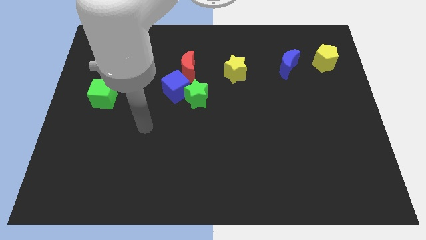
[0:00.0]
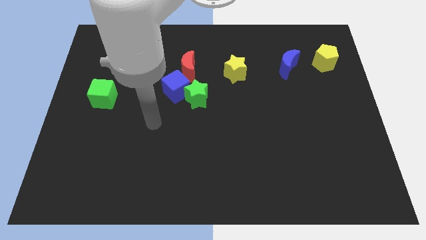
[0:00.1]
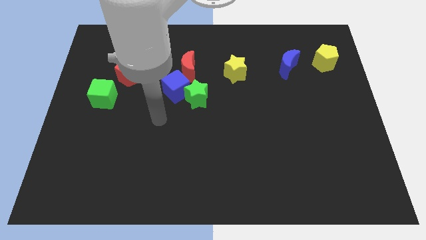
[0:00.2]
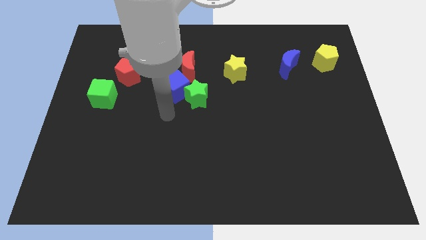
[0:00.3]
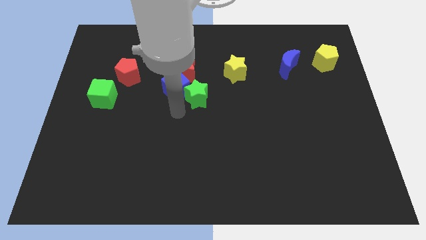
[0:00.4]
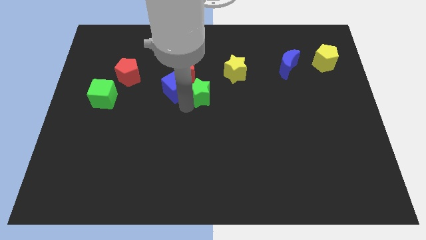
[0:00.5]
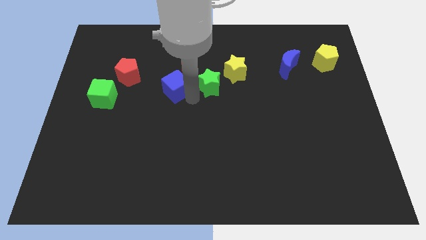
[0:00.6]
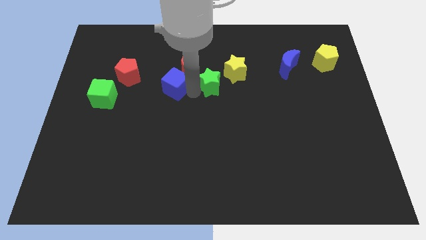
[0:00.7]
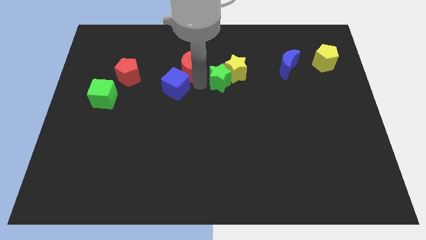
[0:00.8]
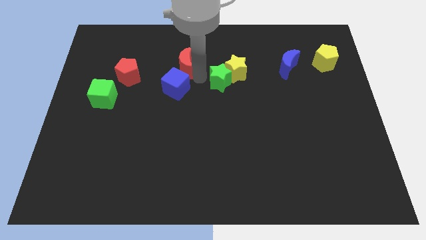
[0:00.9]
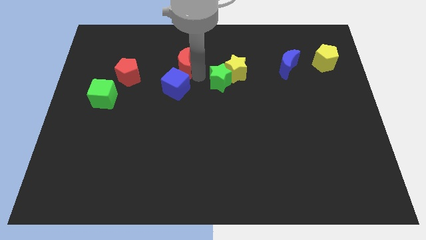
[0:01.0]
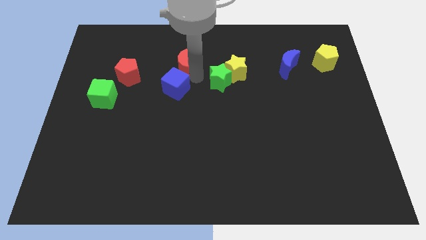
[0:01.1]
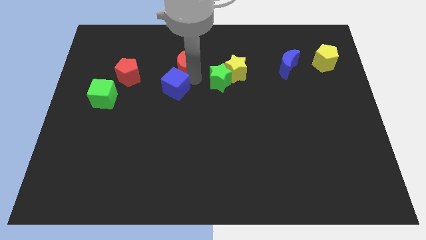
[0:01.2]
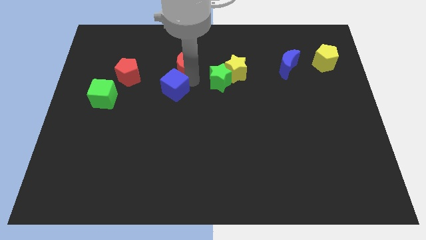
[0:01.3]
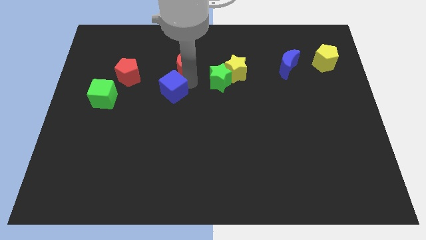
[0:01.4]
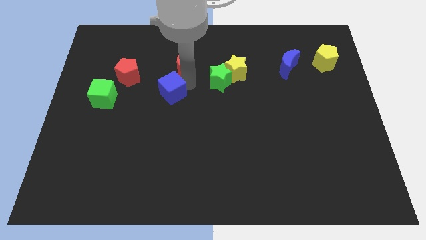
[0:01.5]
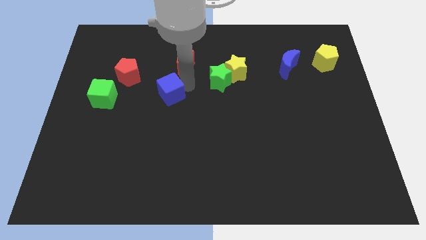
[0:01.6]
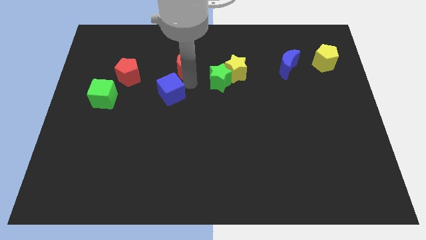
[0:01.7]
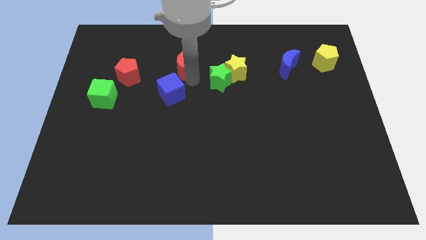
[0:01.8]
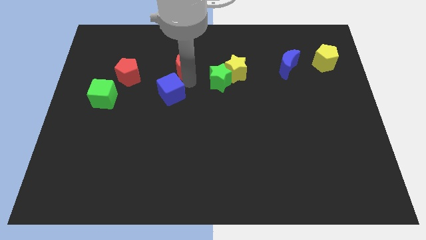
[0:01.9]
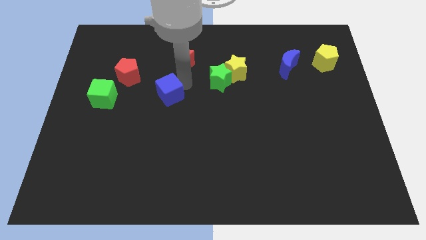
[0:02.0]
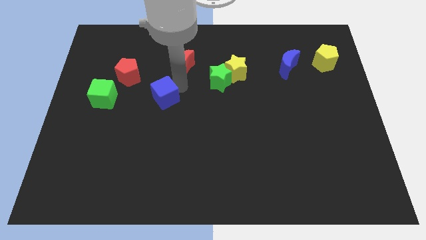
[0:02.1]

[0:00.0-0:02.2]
separate the blue cube from the green star and red moon

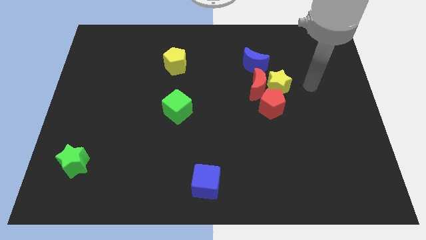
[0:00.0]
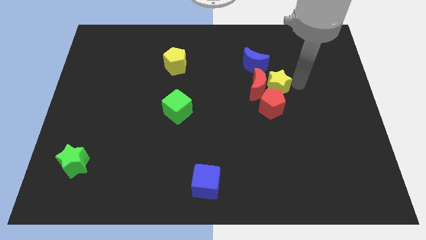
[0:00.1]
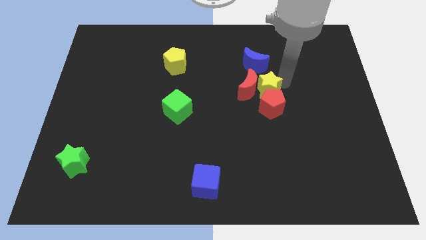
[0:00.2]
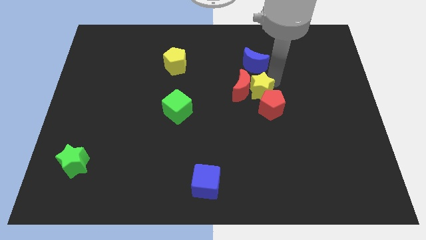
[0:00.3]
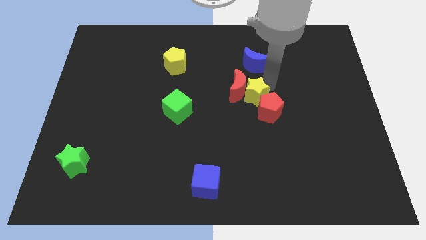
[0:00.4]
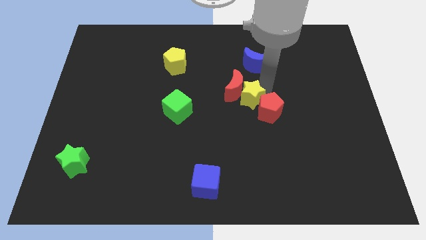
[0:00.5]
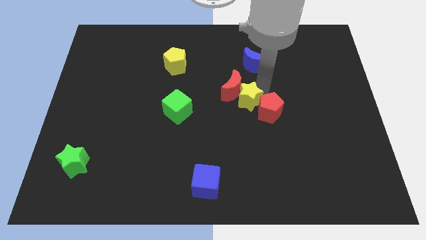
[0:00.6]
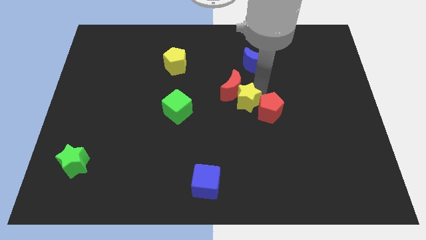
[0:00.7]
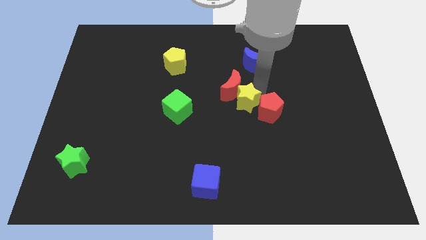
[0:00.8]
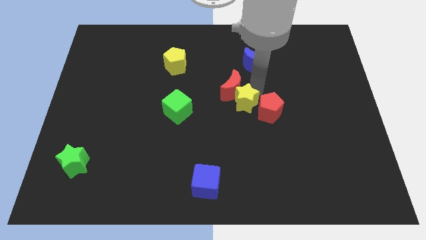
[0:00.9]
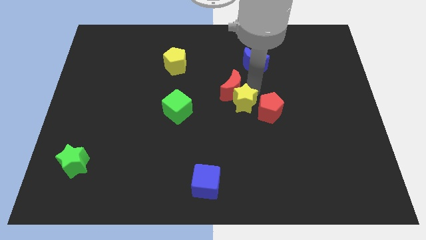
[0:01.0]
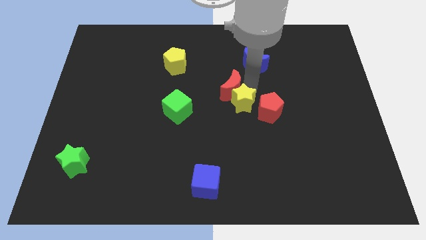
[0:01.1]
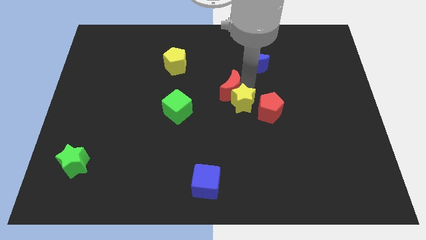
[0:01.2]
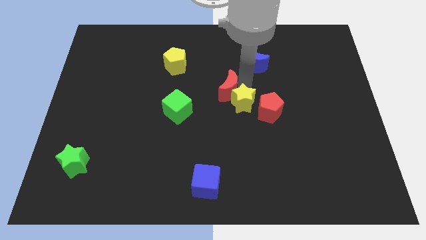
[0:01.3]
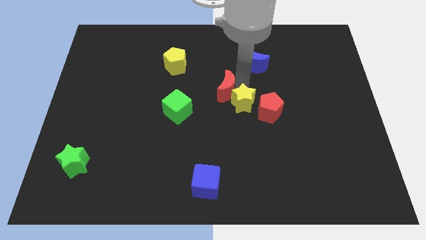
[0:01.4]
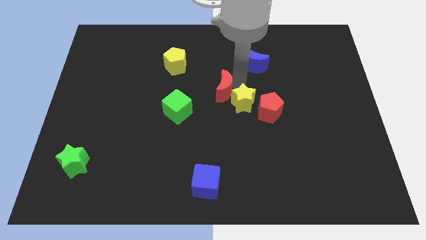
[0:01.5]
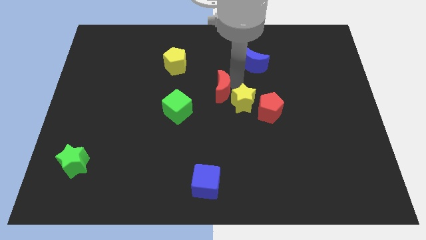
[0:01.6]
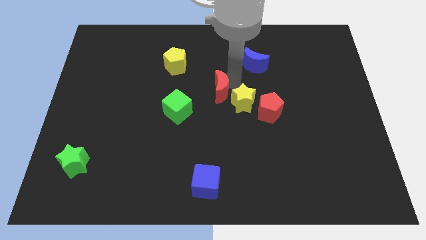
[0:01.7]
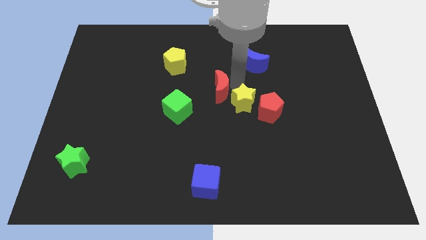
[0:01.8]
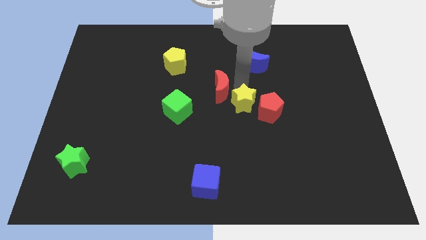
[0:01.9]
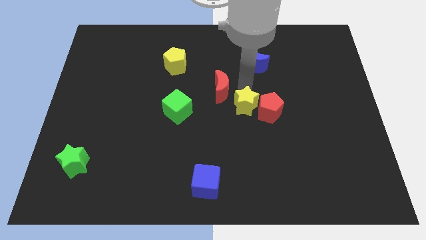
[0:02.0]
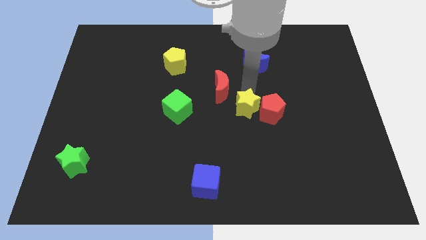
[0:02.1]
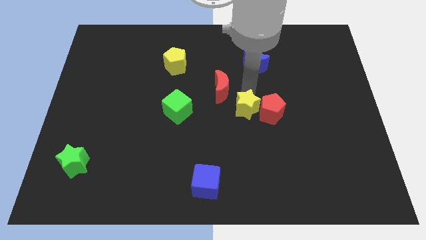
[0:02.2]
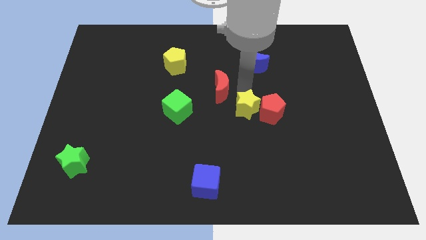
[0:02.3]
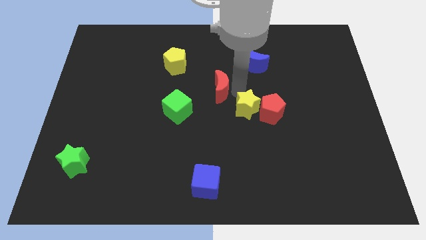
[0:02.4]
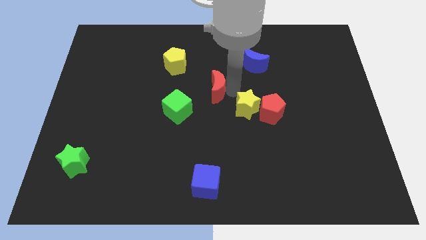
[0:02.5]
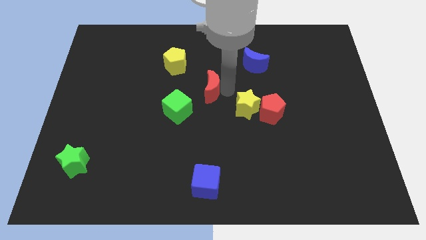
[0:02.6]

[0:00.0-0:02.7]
pull the red moon apart from the group of blocks

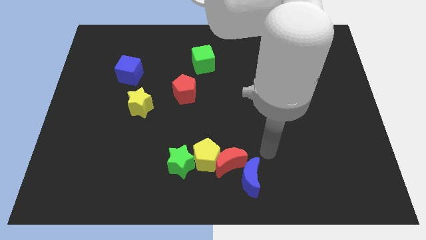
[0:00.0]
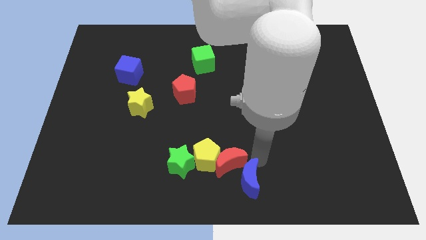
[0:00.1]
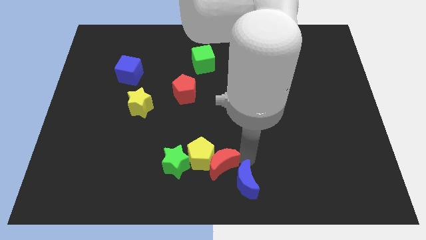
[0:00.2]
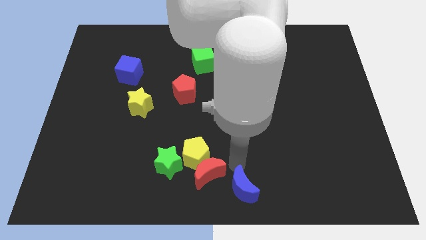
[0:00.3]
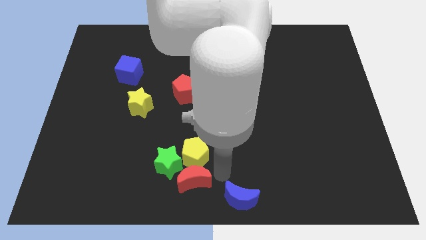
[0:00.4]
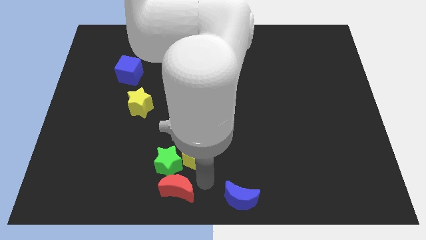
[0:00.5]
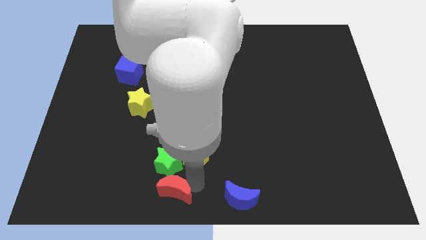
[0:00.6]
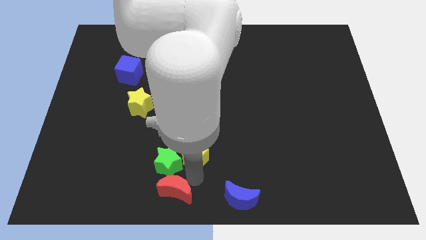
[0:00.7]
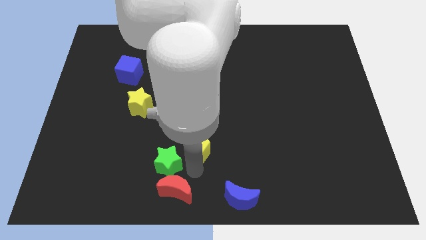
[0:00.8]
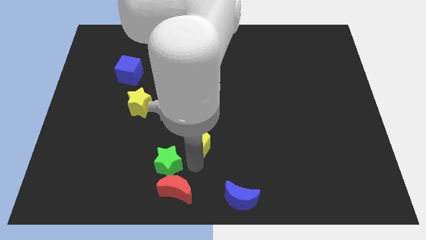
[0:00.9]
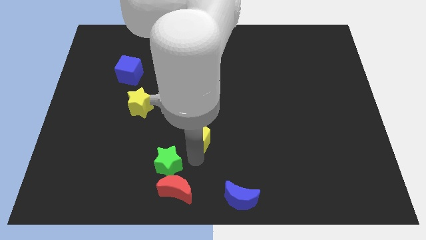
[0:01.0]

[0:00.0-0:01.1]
separate the yellow pentagon from the clump

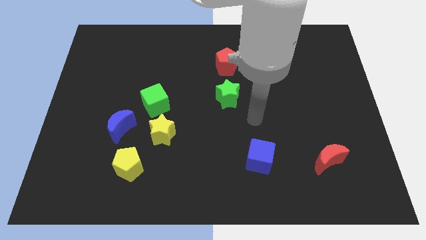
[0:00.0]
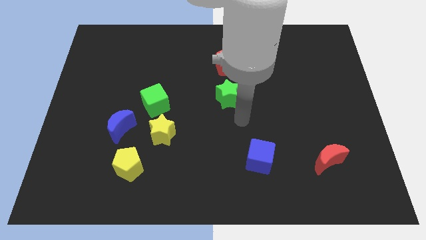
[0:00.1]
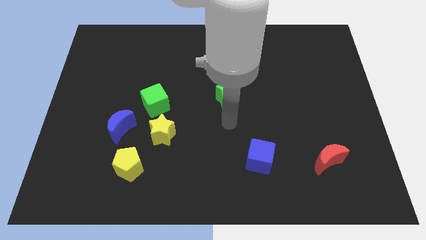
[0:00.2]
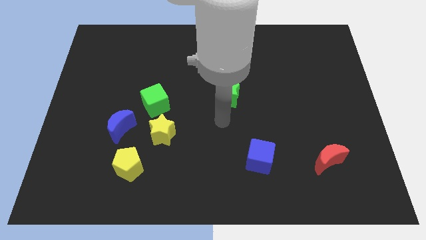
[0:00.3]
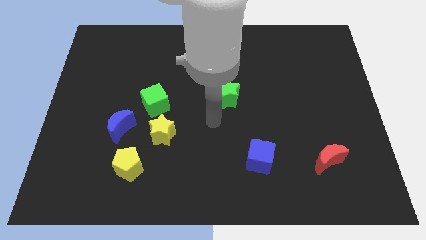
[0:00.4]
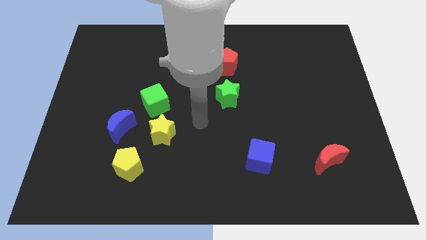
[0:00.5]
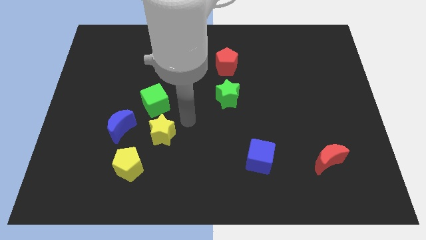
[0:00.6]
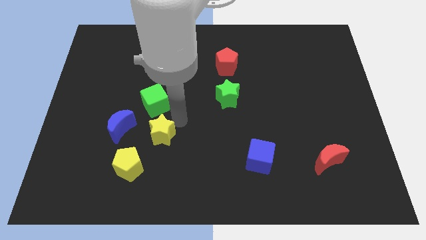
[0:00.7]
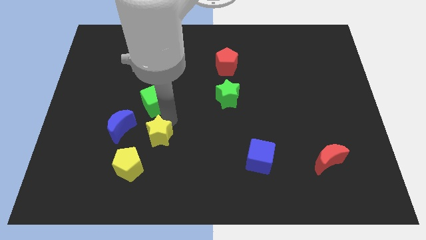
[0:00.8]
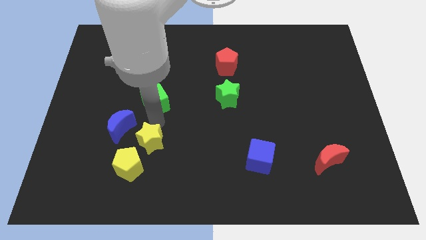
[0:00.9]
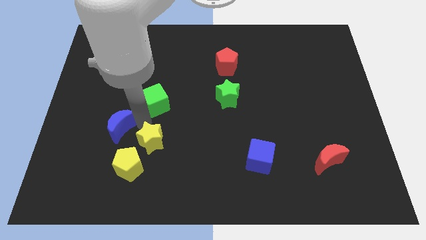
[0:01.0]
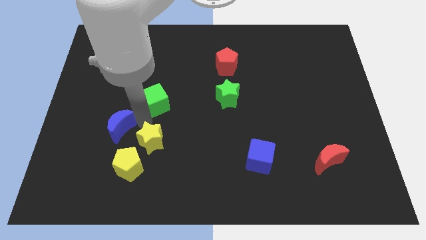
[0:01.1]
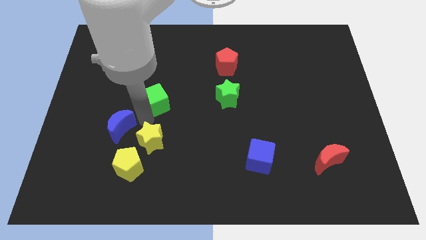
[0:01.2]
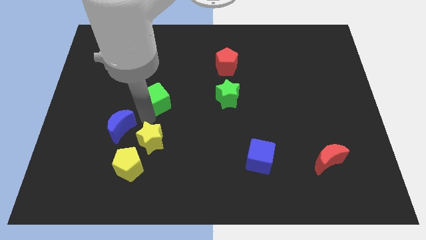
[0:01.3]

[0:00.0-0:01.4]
separate the green cube from the yellow star and blue moon

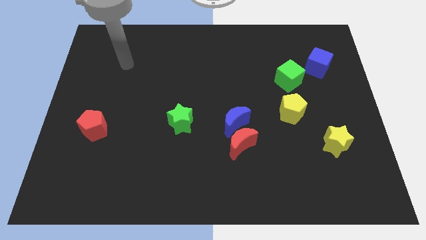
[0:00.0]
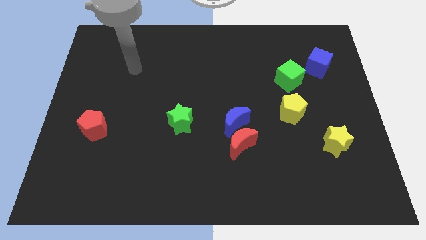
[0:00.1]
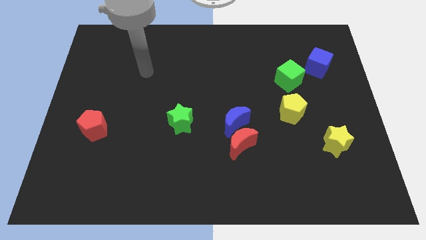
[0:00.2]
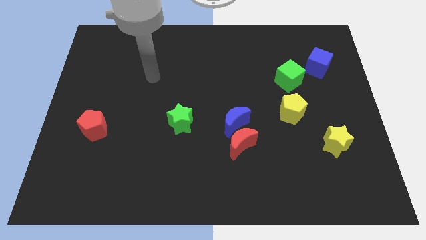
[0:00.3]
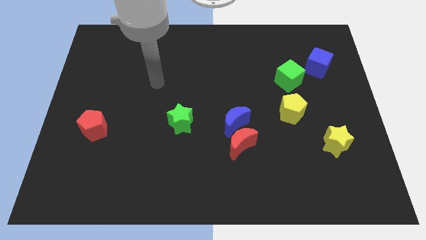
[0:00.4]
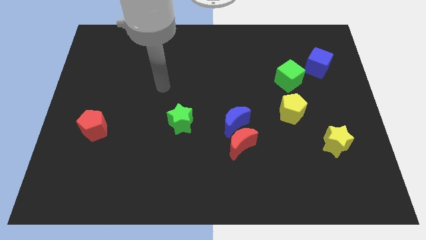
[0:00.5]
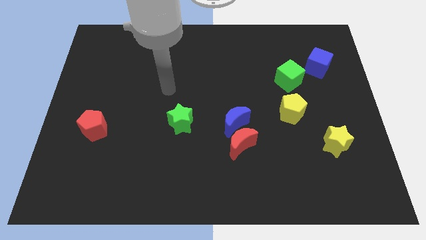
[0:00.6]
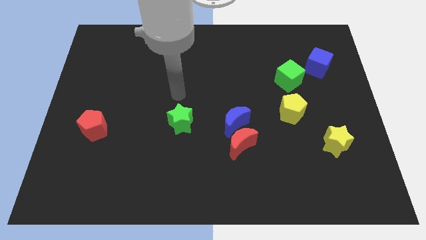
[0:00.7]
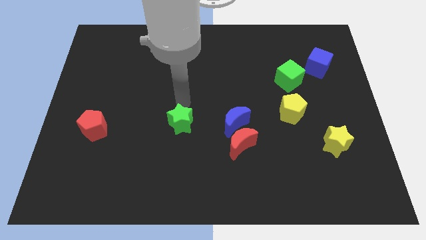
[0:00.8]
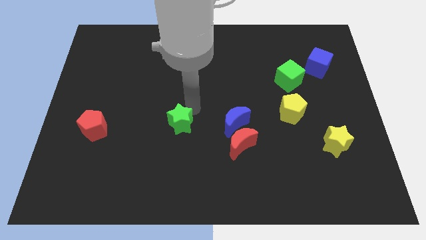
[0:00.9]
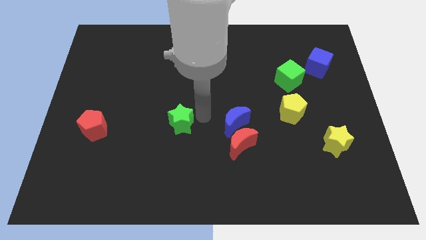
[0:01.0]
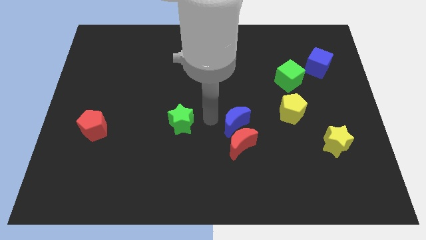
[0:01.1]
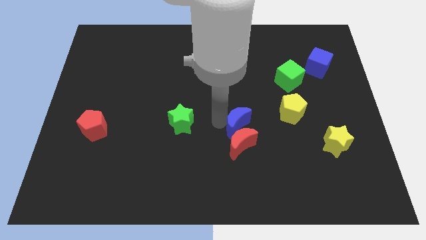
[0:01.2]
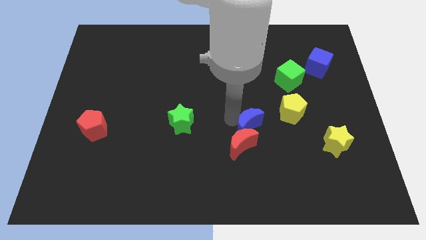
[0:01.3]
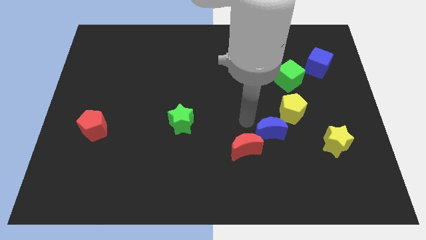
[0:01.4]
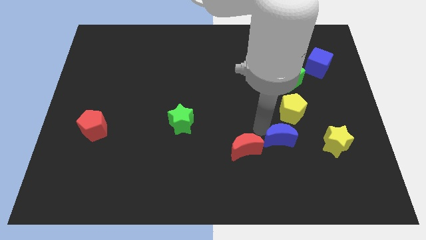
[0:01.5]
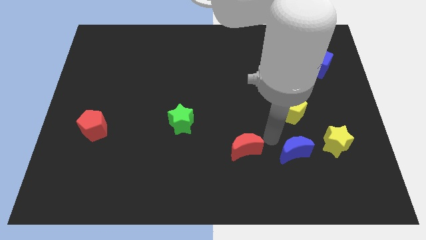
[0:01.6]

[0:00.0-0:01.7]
separate the red moon from the blue moon

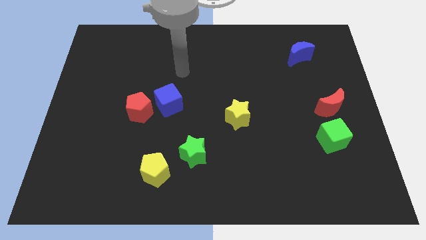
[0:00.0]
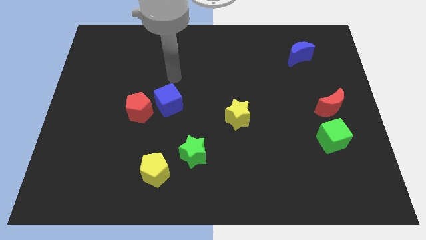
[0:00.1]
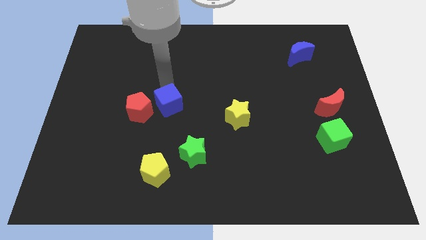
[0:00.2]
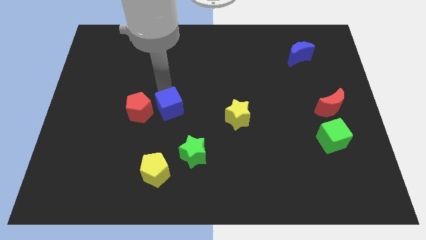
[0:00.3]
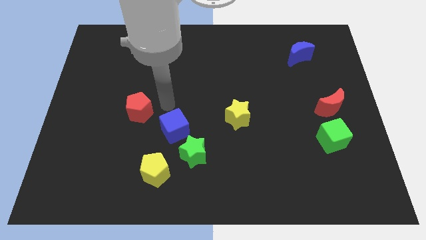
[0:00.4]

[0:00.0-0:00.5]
separate the red pentagon from the blue cube
